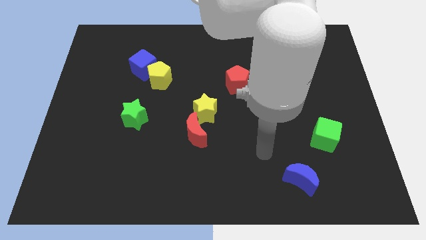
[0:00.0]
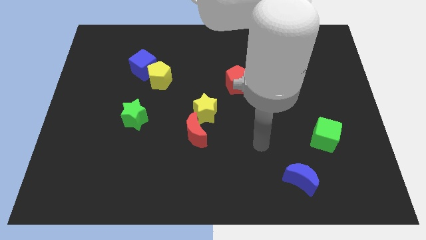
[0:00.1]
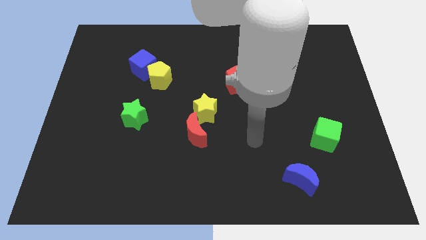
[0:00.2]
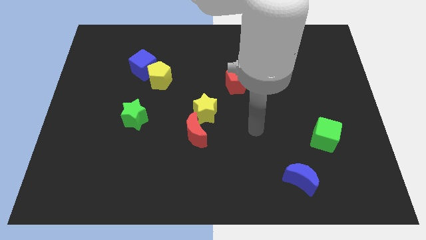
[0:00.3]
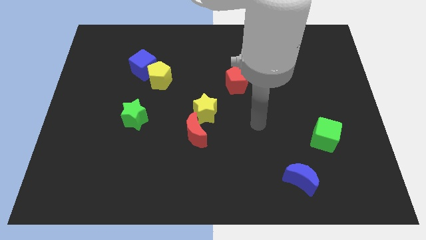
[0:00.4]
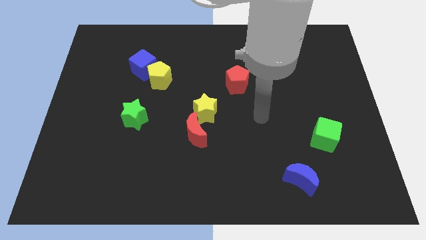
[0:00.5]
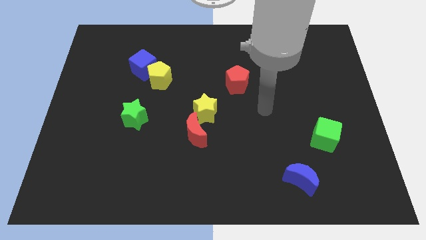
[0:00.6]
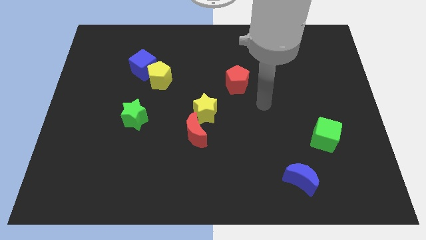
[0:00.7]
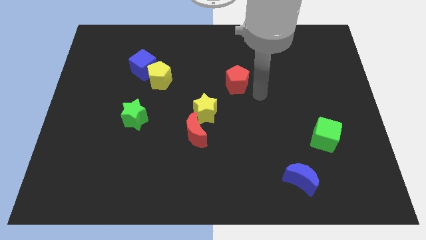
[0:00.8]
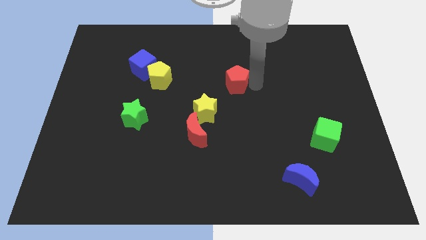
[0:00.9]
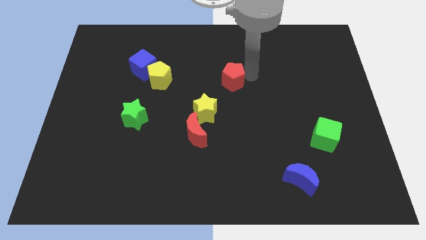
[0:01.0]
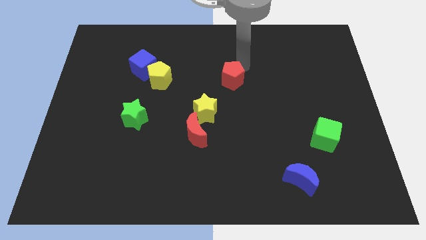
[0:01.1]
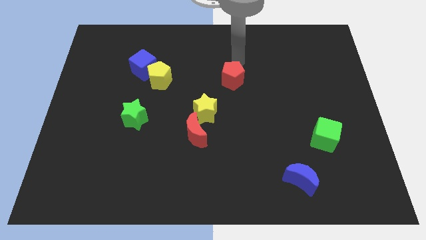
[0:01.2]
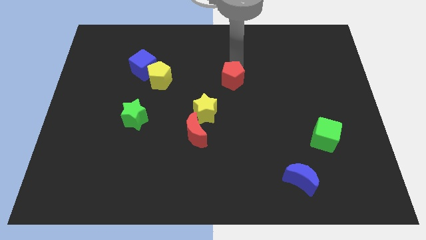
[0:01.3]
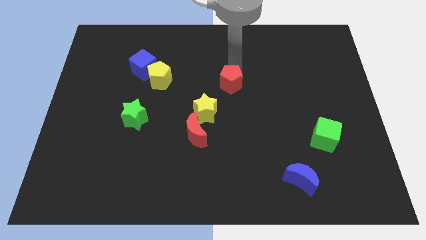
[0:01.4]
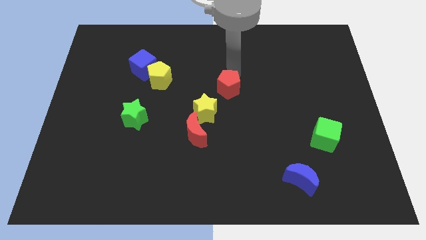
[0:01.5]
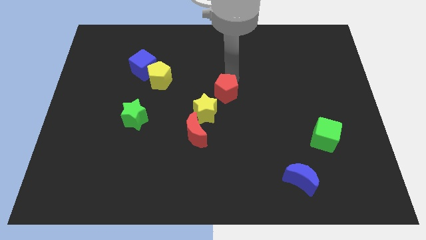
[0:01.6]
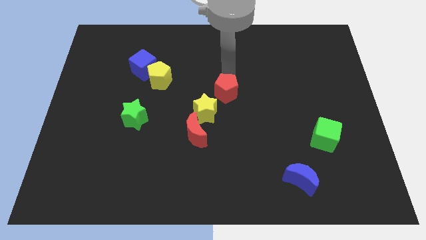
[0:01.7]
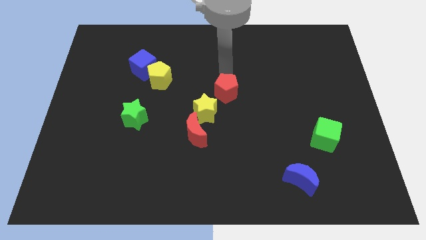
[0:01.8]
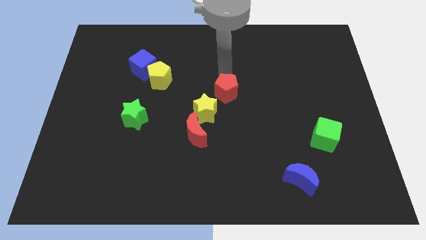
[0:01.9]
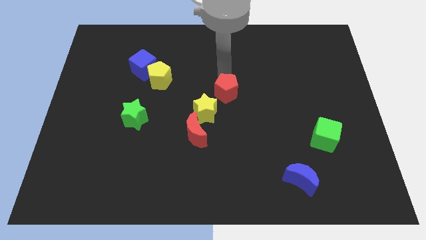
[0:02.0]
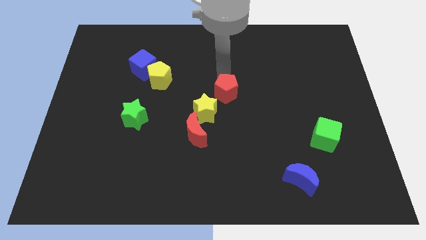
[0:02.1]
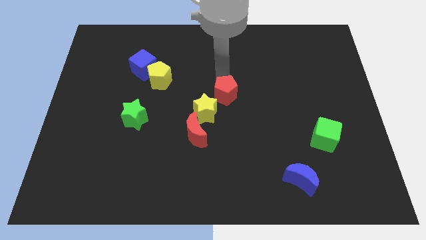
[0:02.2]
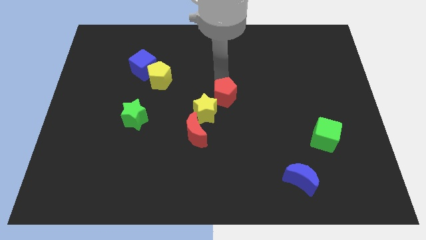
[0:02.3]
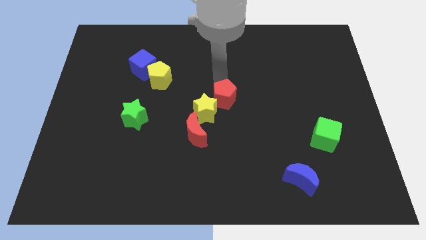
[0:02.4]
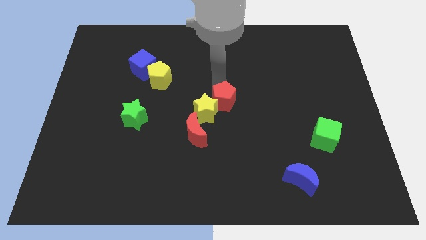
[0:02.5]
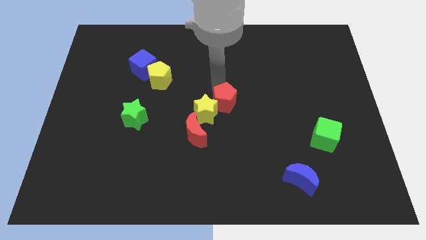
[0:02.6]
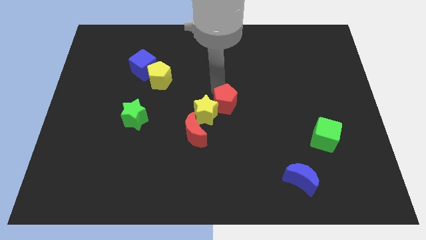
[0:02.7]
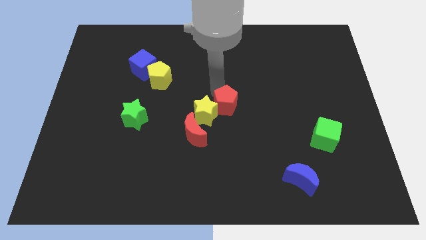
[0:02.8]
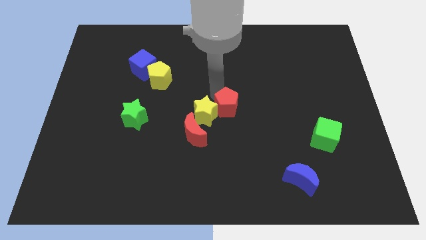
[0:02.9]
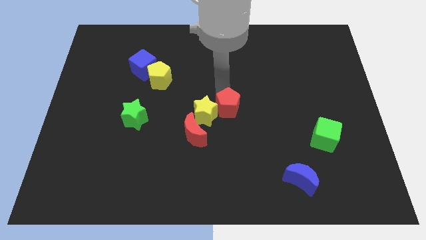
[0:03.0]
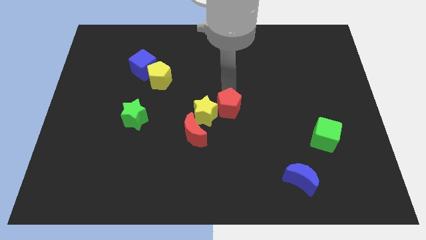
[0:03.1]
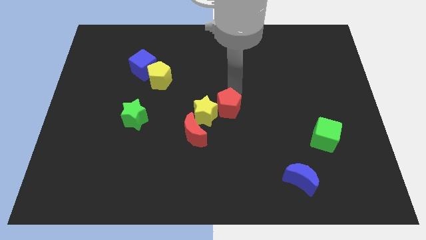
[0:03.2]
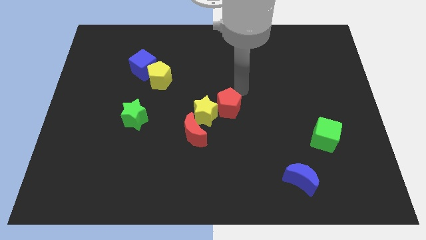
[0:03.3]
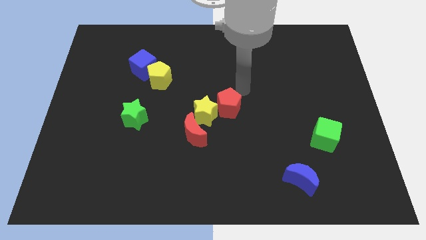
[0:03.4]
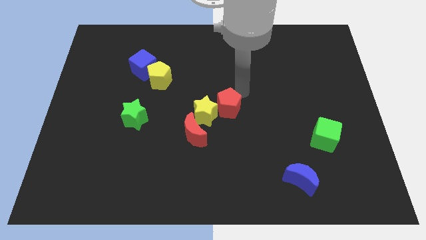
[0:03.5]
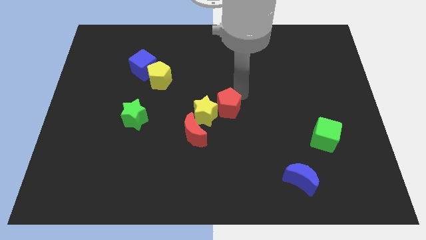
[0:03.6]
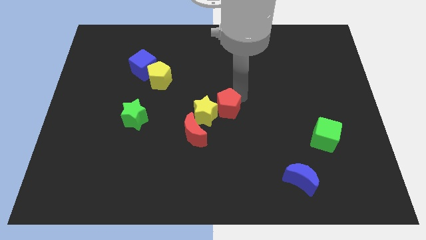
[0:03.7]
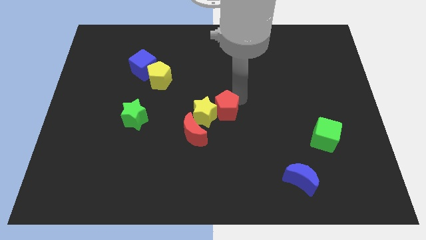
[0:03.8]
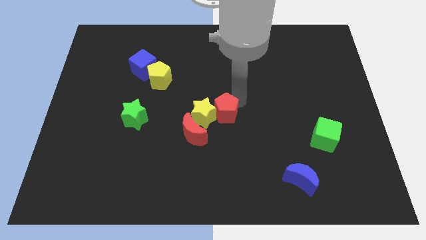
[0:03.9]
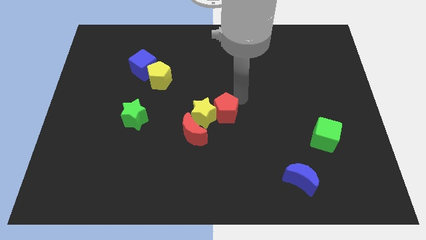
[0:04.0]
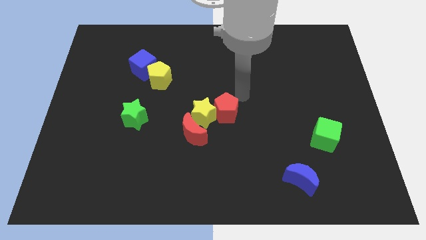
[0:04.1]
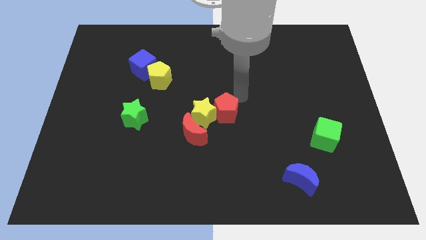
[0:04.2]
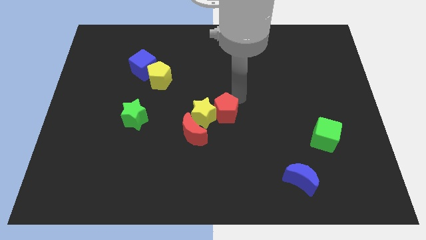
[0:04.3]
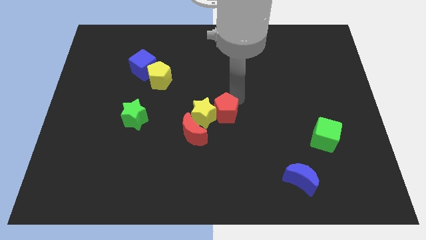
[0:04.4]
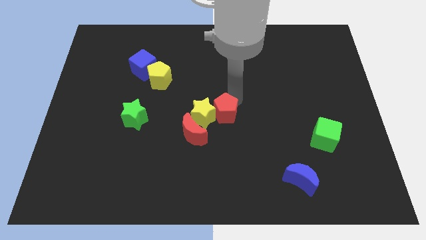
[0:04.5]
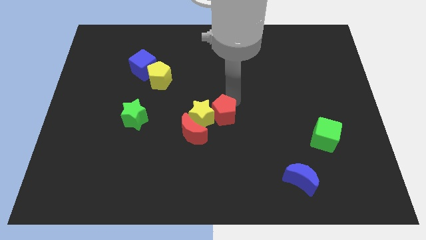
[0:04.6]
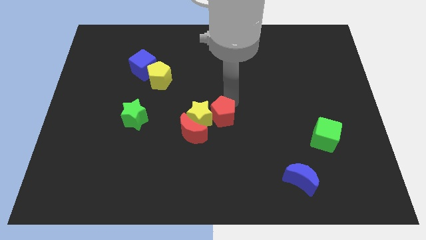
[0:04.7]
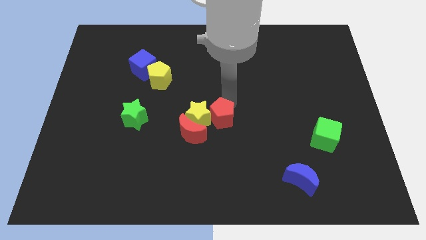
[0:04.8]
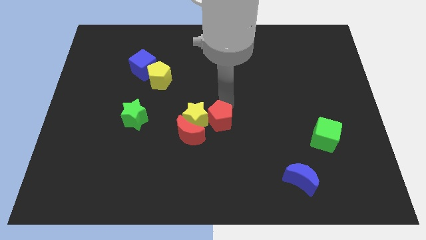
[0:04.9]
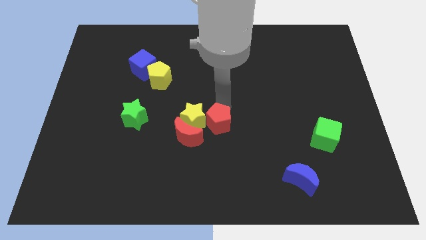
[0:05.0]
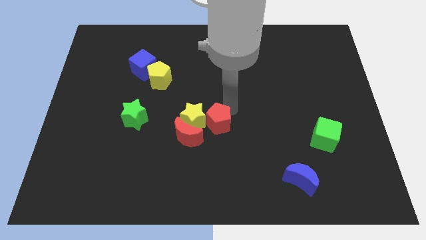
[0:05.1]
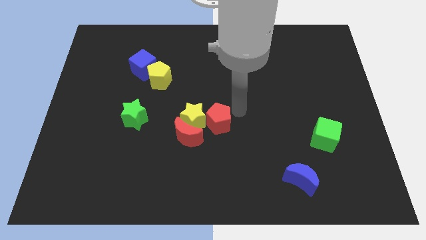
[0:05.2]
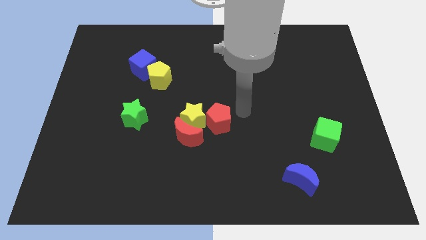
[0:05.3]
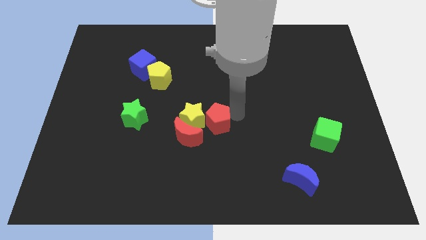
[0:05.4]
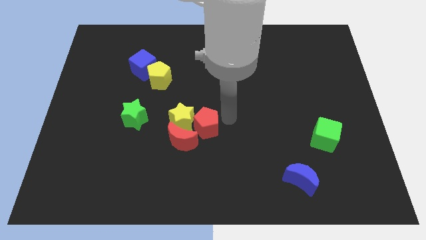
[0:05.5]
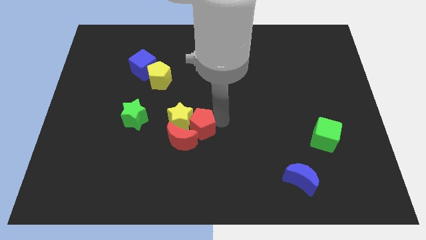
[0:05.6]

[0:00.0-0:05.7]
move the red pentagon to the red moon
